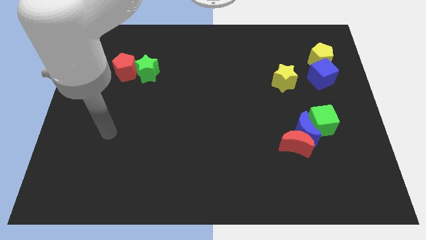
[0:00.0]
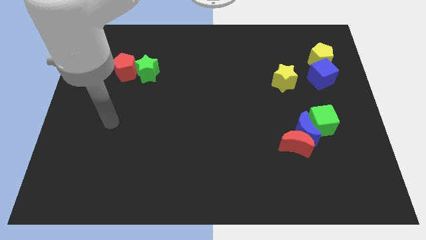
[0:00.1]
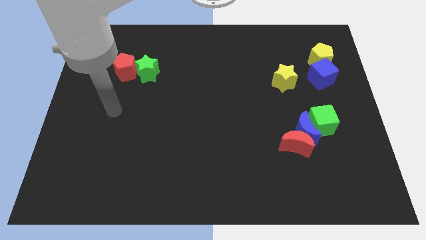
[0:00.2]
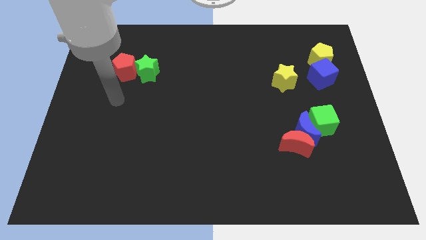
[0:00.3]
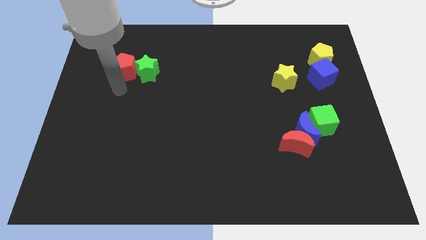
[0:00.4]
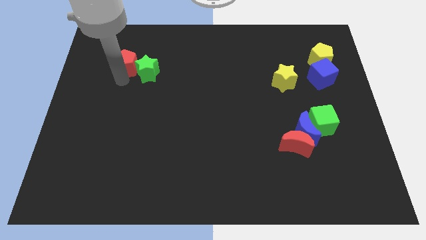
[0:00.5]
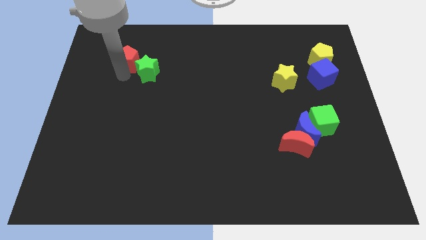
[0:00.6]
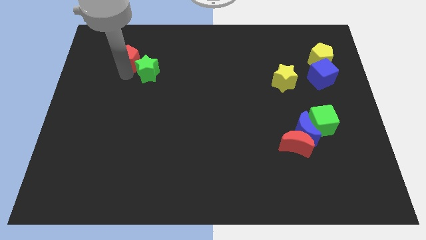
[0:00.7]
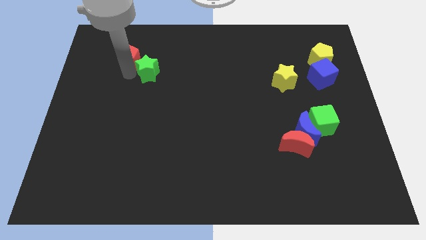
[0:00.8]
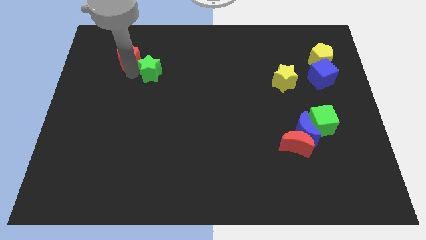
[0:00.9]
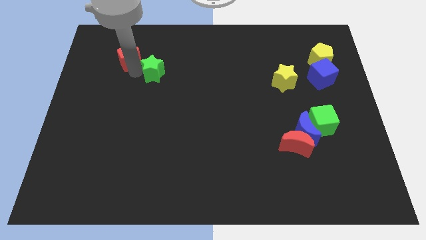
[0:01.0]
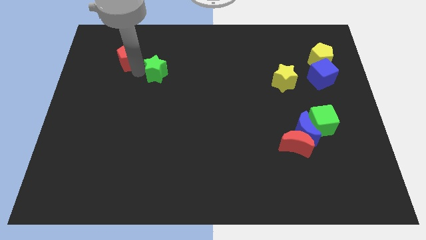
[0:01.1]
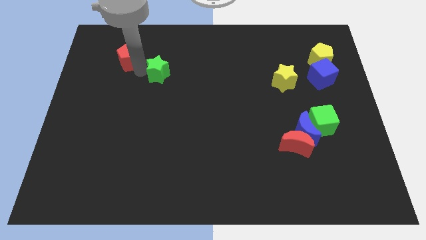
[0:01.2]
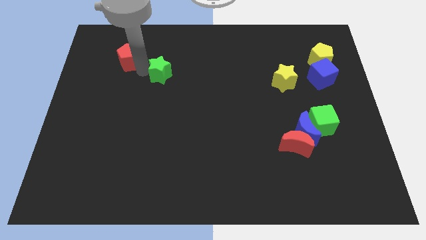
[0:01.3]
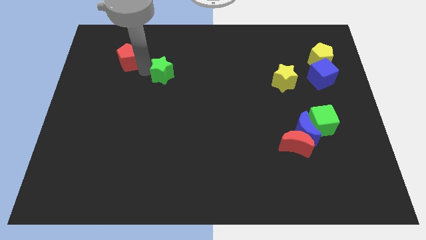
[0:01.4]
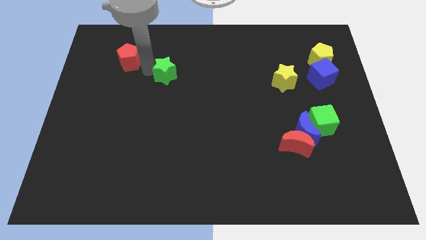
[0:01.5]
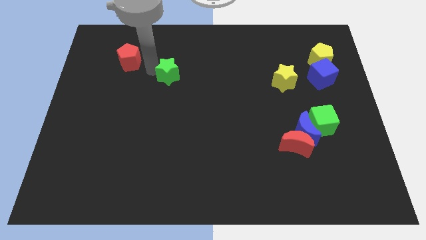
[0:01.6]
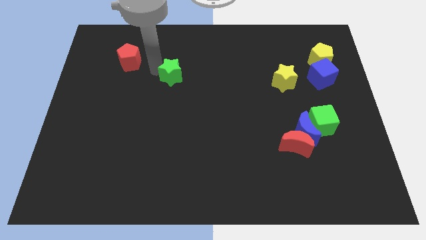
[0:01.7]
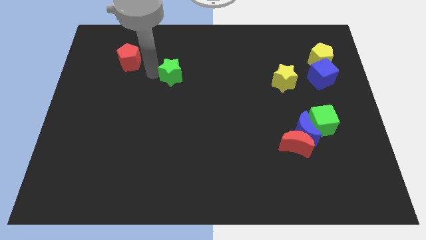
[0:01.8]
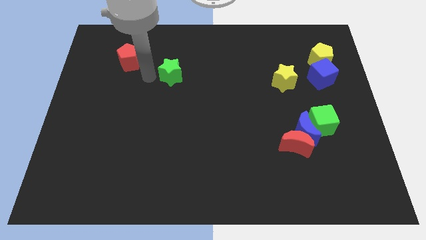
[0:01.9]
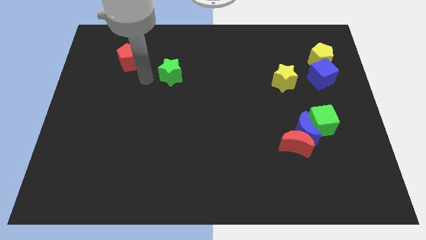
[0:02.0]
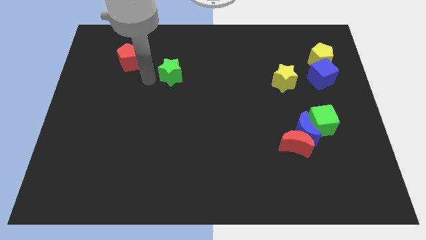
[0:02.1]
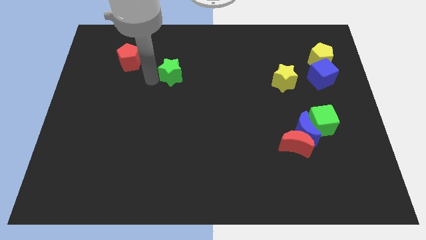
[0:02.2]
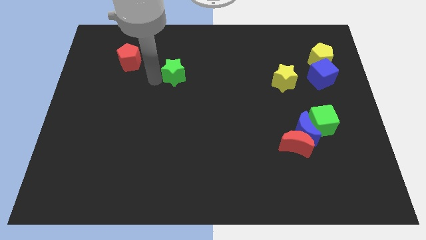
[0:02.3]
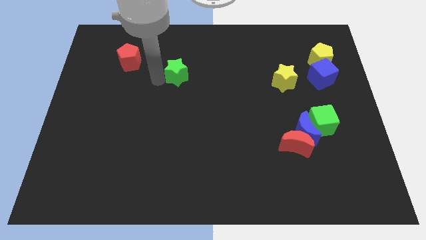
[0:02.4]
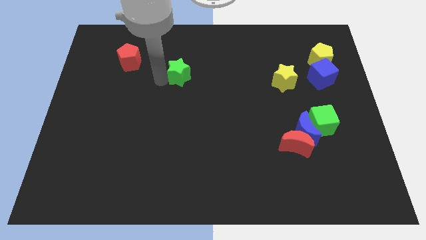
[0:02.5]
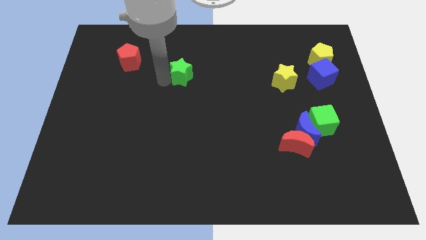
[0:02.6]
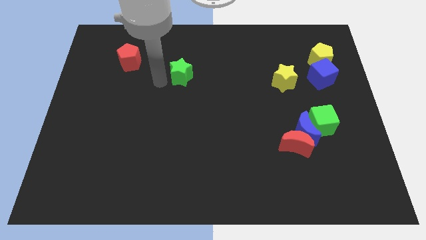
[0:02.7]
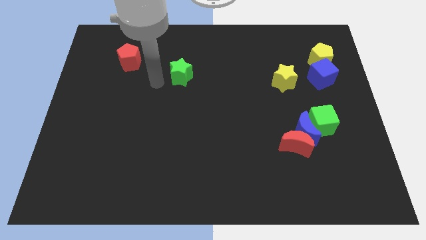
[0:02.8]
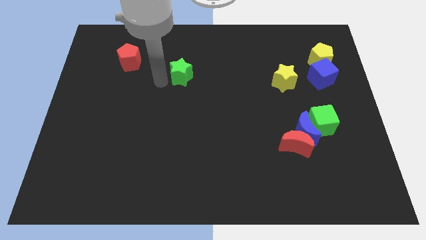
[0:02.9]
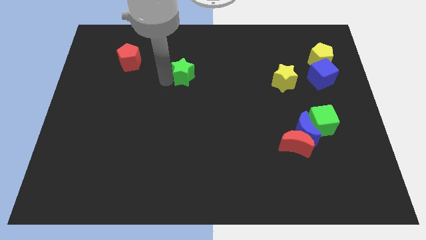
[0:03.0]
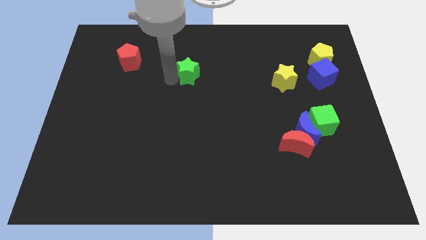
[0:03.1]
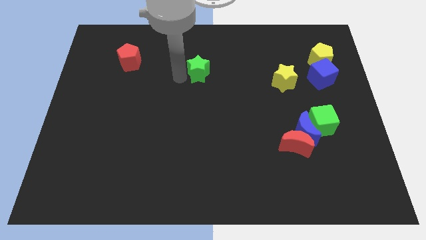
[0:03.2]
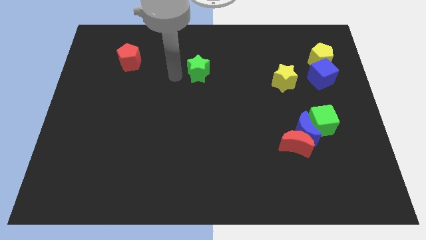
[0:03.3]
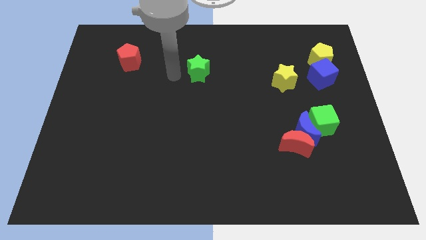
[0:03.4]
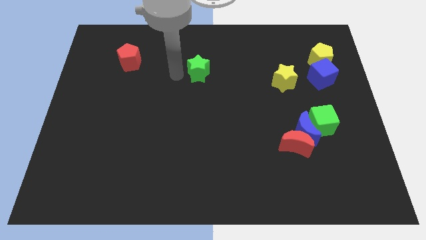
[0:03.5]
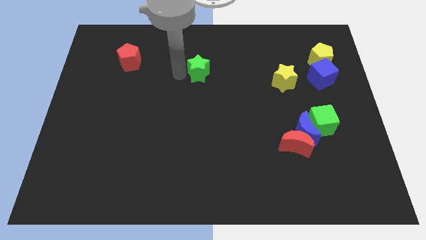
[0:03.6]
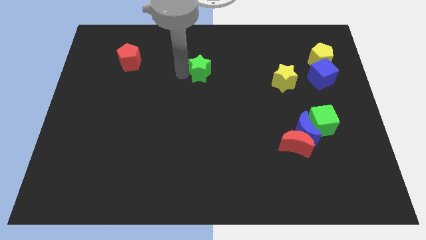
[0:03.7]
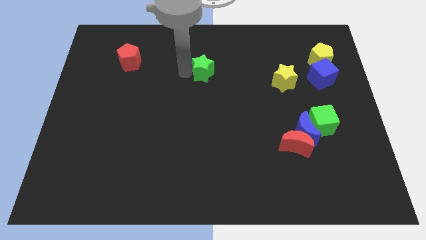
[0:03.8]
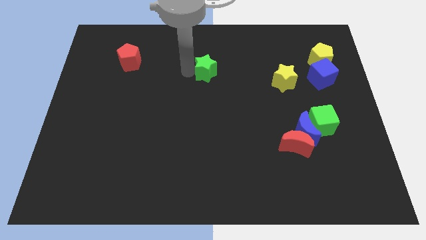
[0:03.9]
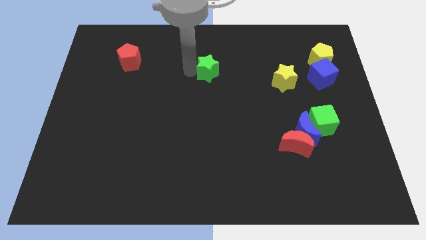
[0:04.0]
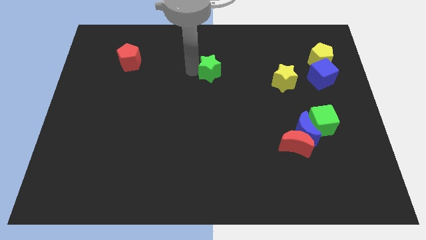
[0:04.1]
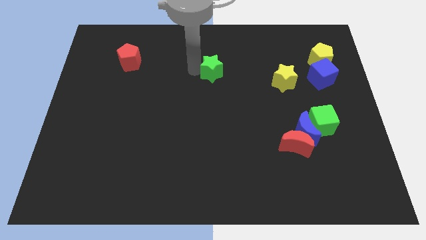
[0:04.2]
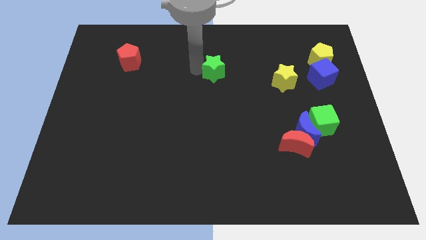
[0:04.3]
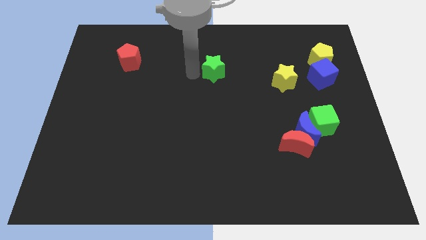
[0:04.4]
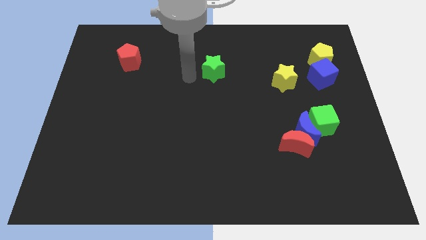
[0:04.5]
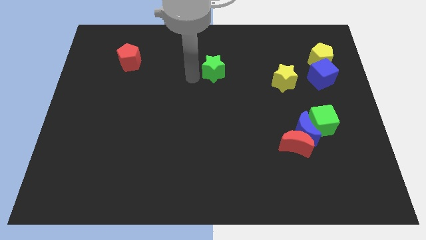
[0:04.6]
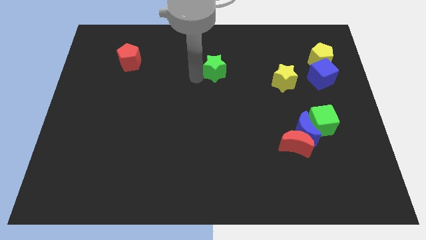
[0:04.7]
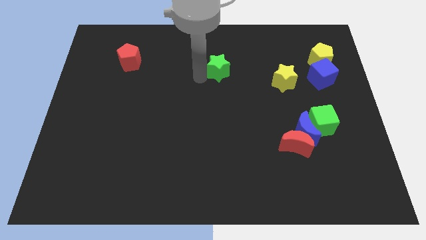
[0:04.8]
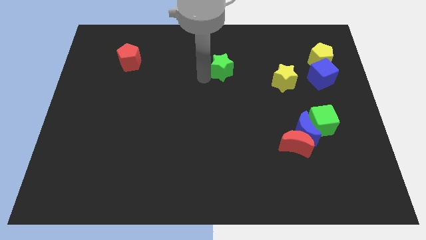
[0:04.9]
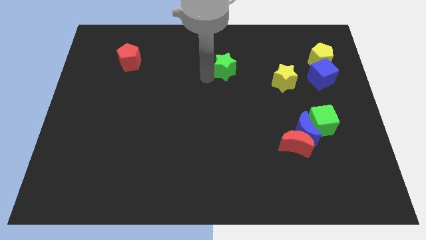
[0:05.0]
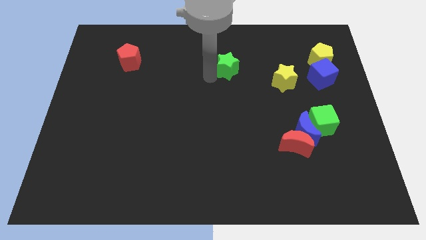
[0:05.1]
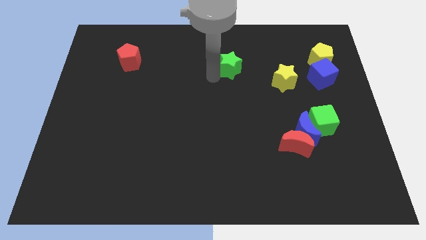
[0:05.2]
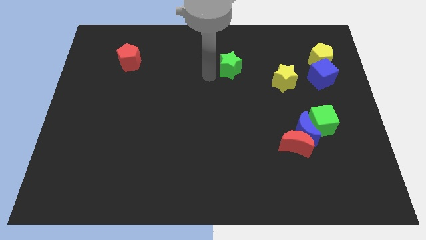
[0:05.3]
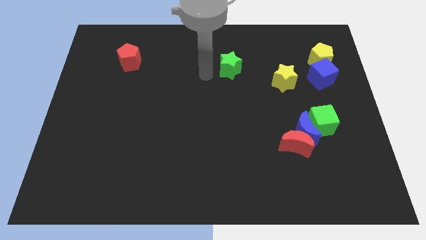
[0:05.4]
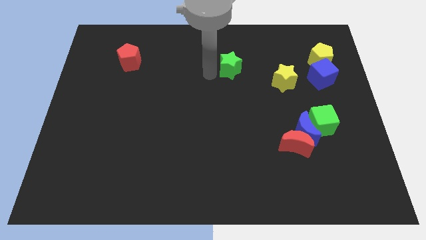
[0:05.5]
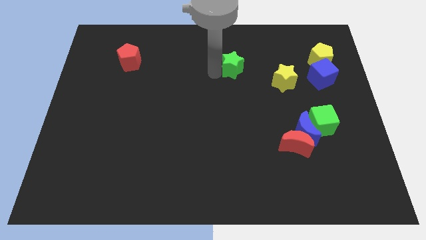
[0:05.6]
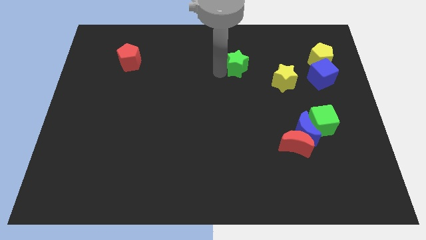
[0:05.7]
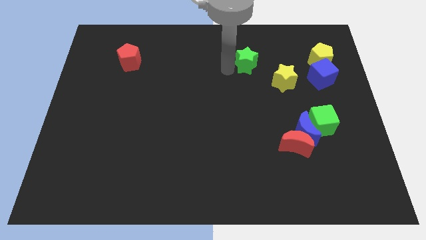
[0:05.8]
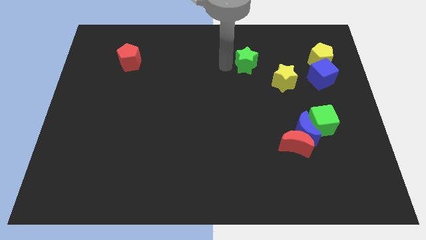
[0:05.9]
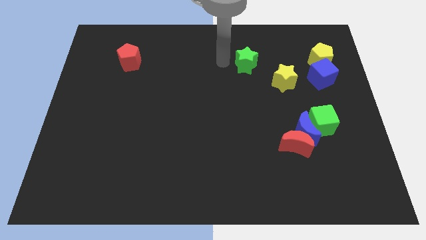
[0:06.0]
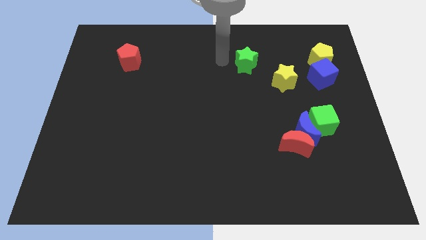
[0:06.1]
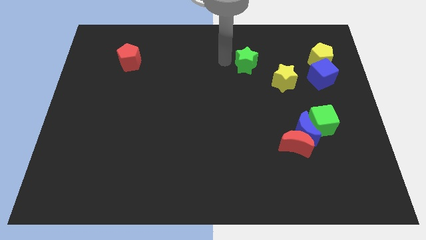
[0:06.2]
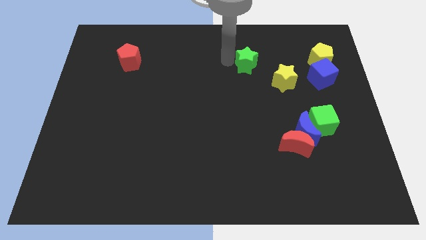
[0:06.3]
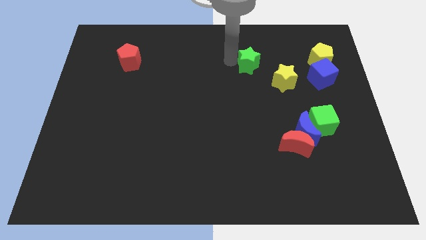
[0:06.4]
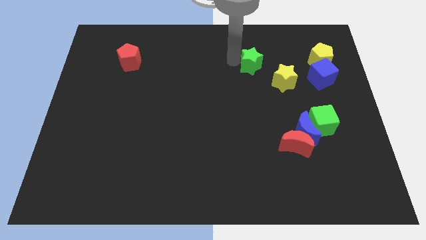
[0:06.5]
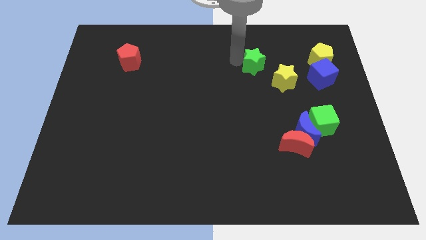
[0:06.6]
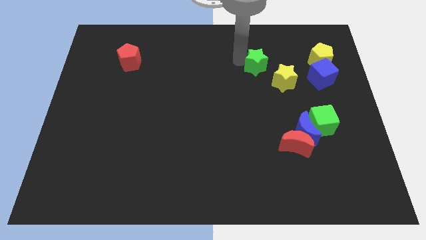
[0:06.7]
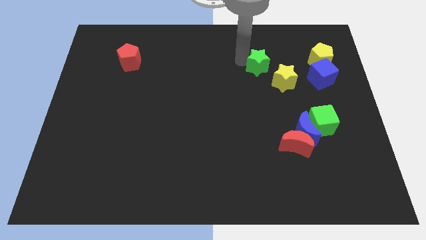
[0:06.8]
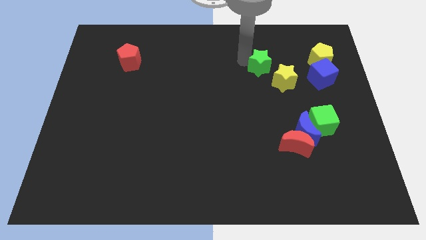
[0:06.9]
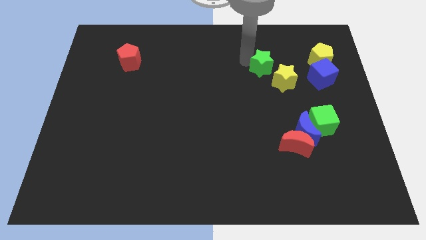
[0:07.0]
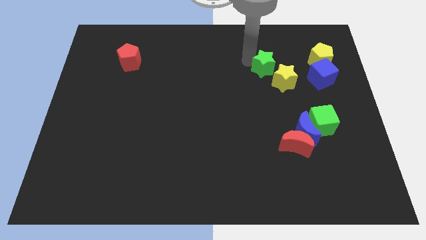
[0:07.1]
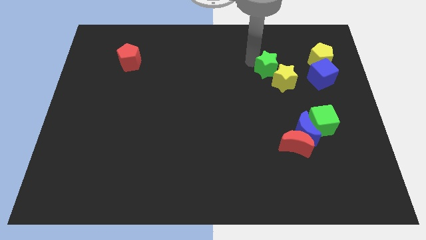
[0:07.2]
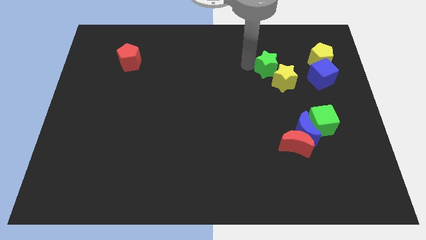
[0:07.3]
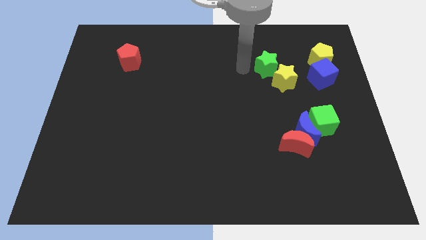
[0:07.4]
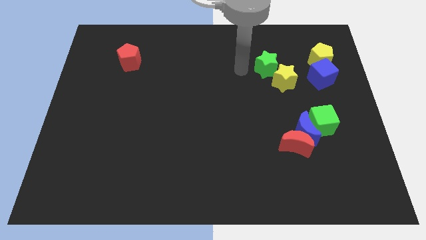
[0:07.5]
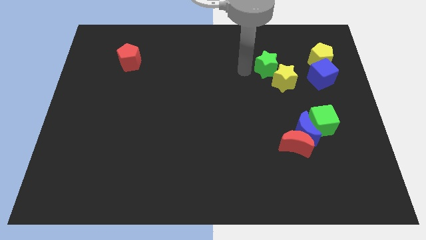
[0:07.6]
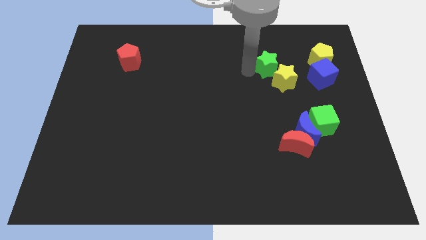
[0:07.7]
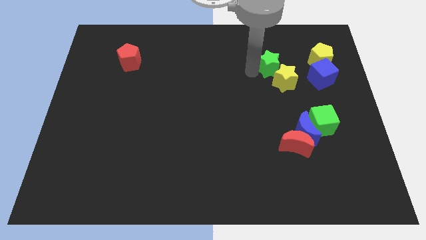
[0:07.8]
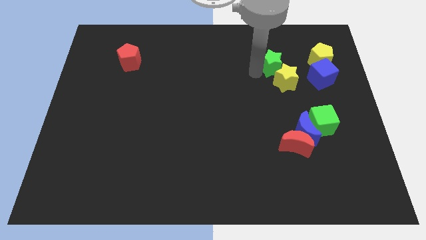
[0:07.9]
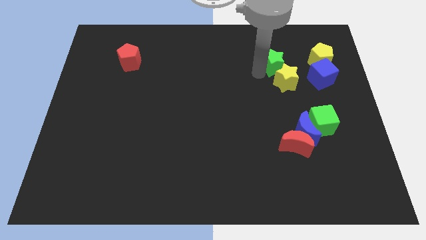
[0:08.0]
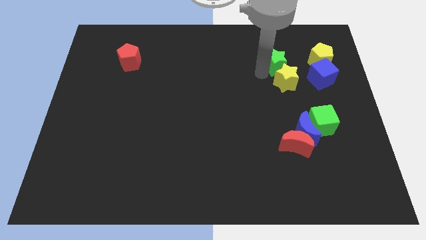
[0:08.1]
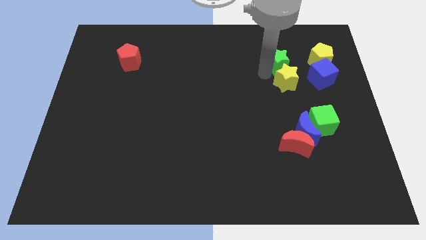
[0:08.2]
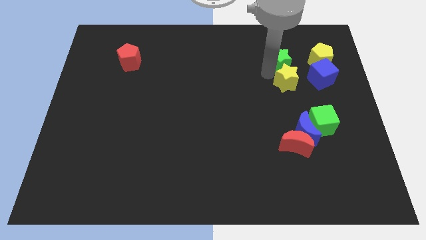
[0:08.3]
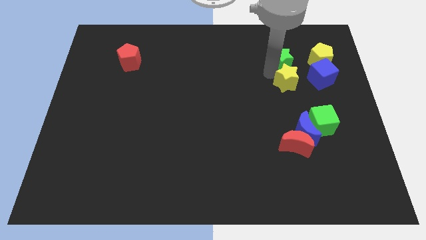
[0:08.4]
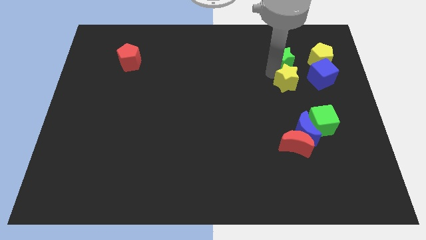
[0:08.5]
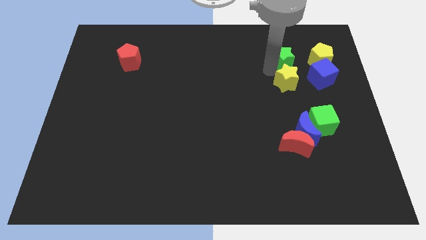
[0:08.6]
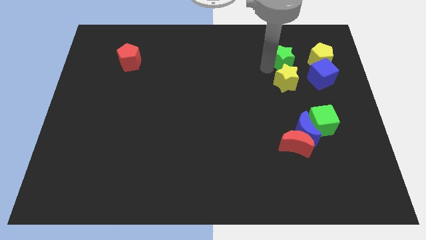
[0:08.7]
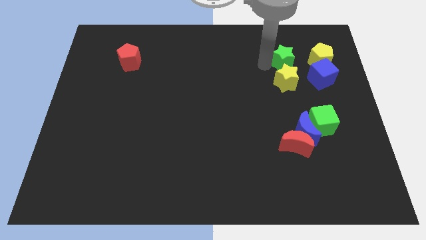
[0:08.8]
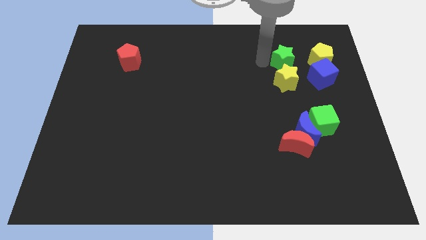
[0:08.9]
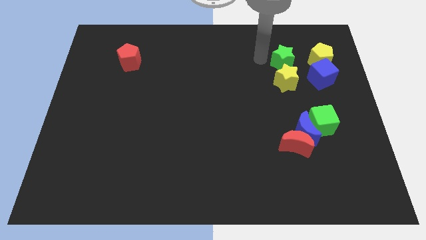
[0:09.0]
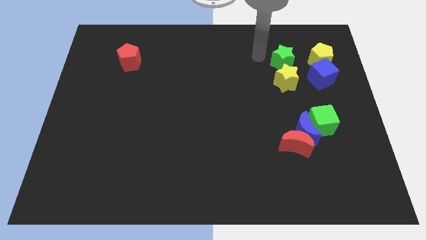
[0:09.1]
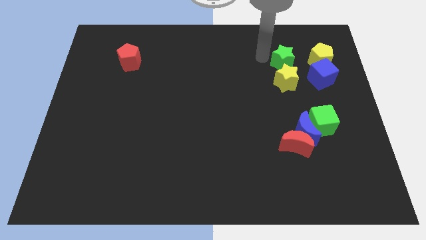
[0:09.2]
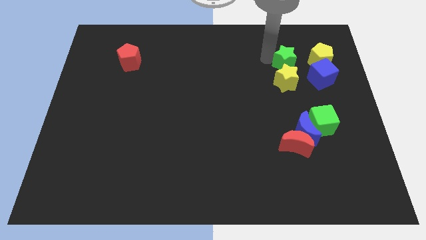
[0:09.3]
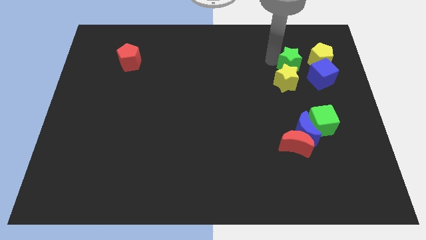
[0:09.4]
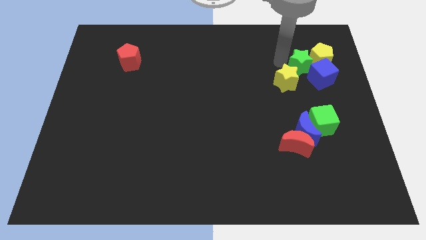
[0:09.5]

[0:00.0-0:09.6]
slide the green star to the blue cube
